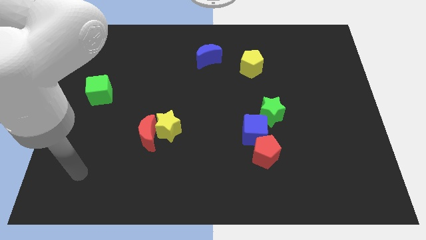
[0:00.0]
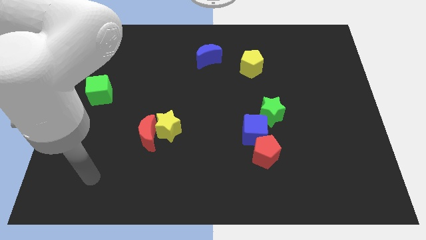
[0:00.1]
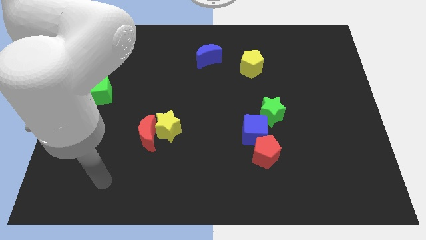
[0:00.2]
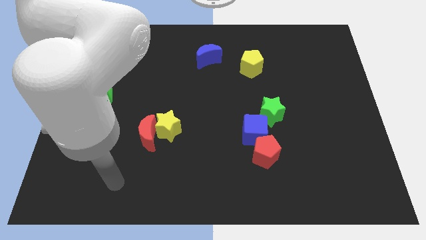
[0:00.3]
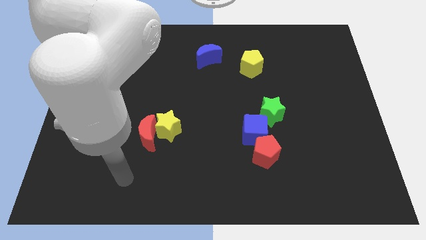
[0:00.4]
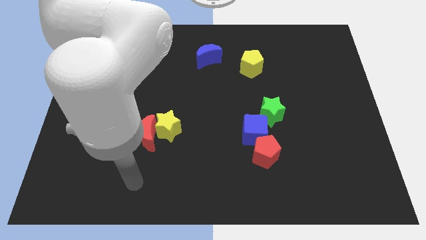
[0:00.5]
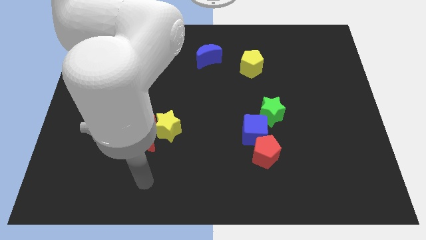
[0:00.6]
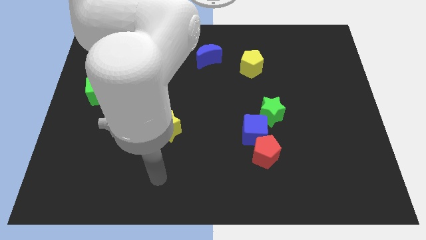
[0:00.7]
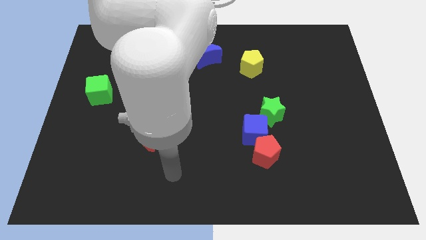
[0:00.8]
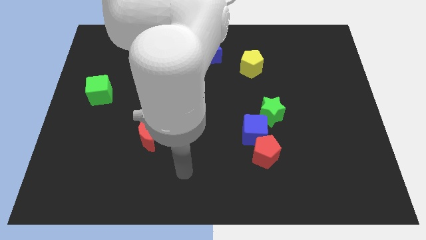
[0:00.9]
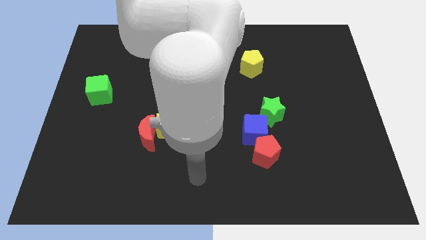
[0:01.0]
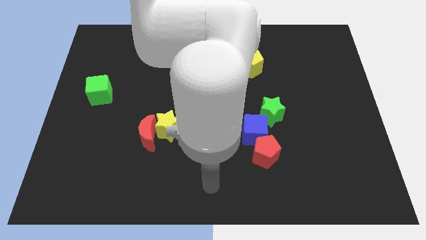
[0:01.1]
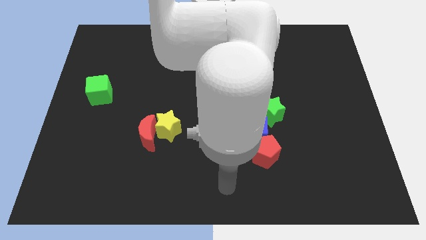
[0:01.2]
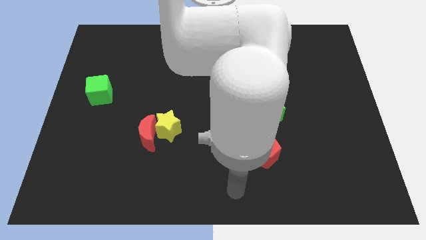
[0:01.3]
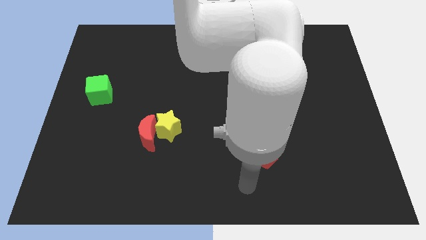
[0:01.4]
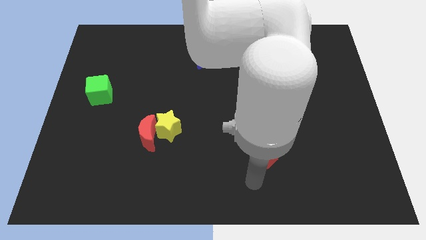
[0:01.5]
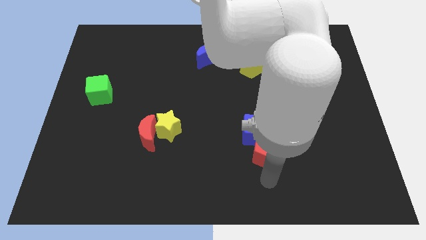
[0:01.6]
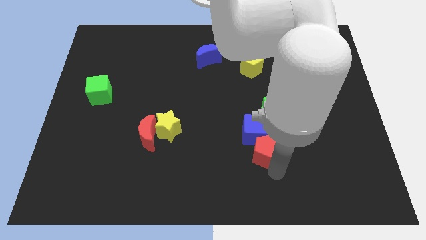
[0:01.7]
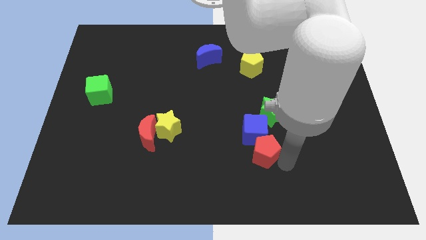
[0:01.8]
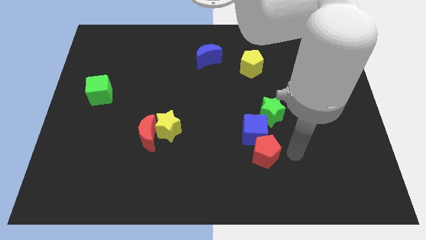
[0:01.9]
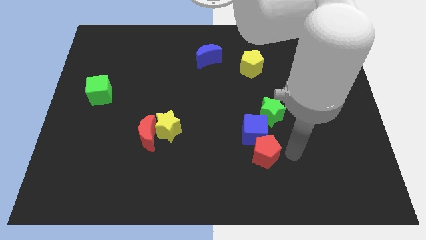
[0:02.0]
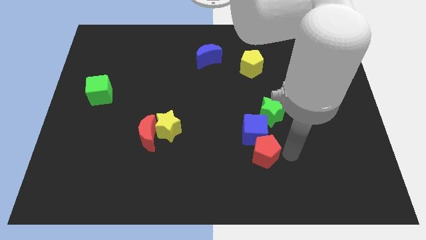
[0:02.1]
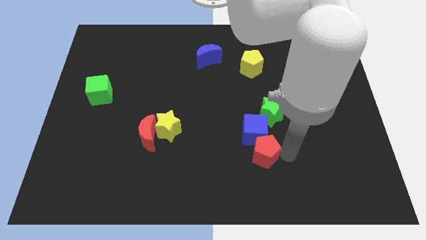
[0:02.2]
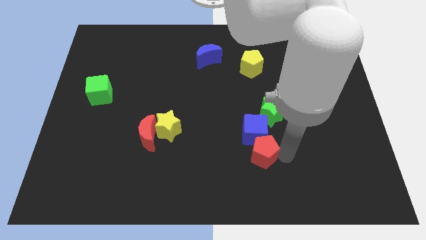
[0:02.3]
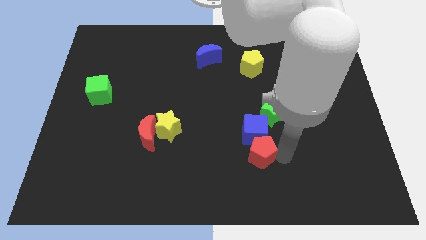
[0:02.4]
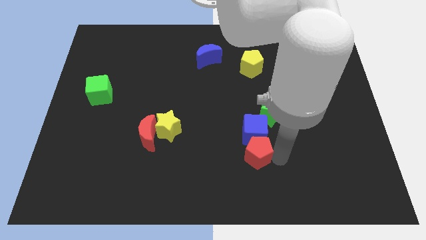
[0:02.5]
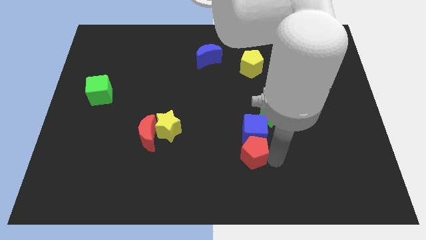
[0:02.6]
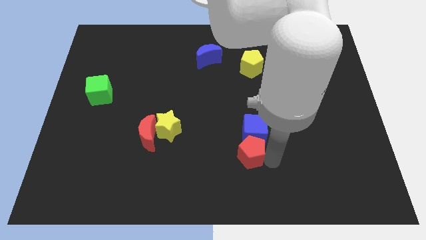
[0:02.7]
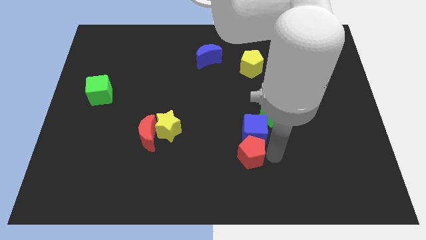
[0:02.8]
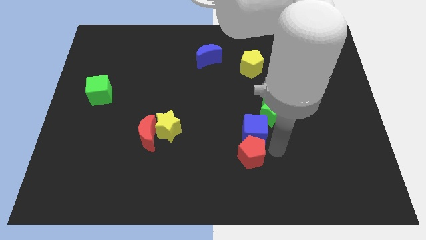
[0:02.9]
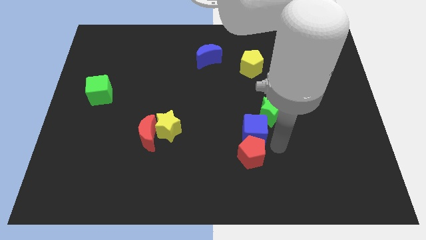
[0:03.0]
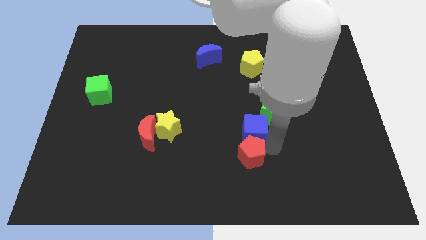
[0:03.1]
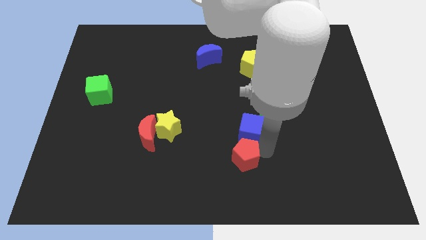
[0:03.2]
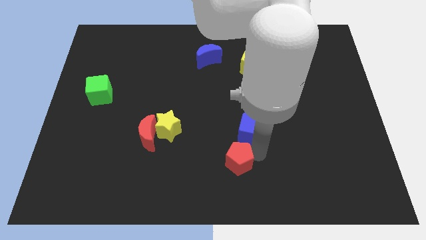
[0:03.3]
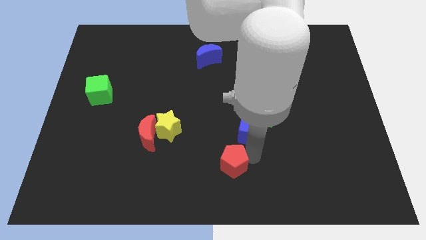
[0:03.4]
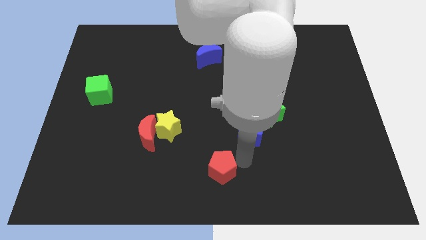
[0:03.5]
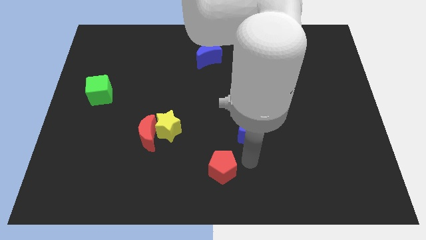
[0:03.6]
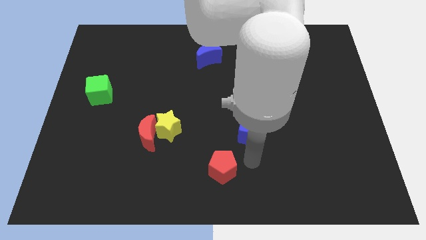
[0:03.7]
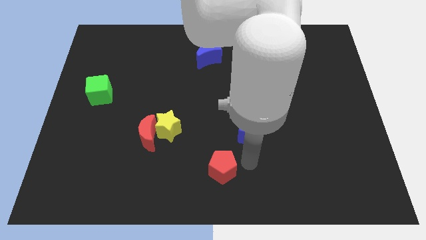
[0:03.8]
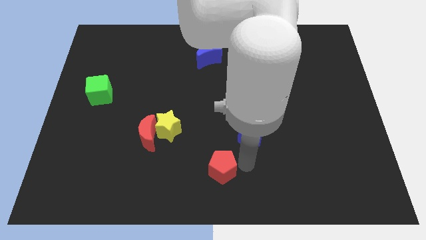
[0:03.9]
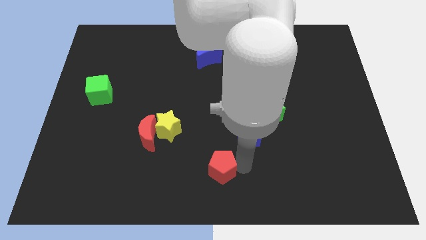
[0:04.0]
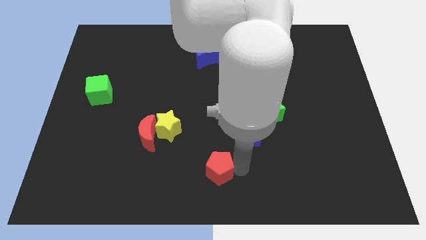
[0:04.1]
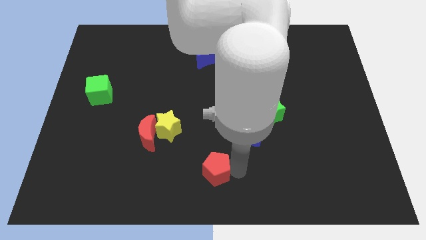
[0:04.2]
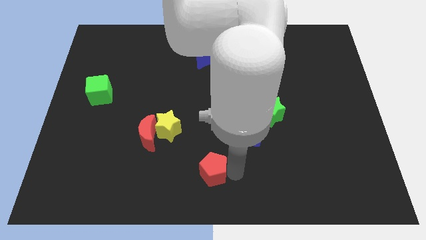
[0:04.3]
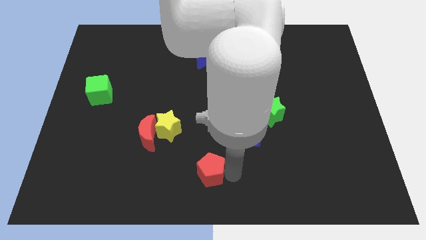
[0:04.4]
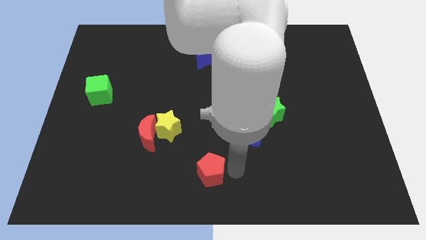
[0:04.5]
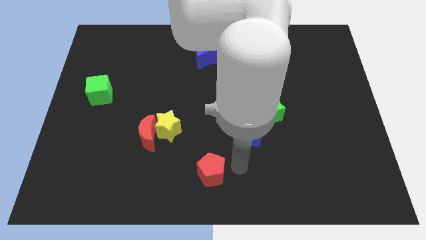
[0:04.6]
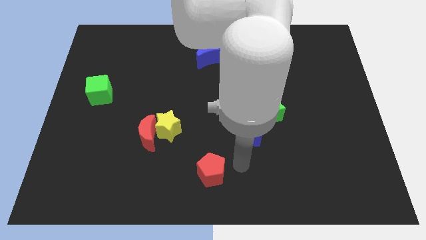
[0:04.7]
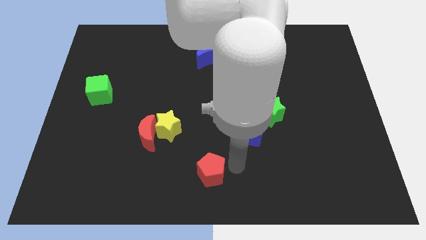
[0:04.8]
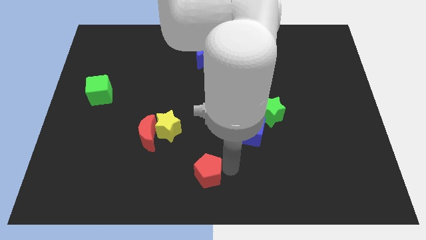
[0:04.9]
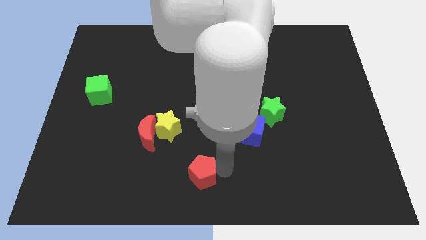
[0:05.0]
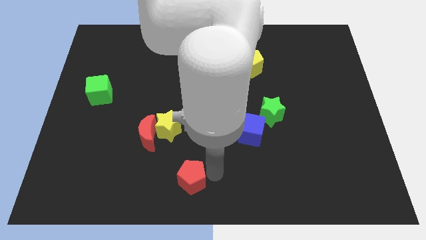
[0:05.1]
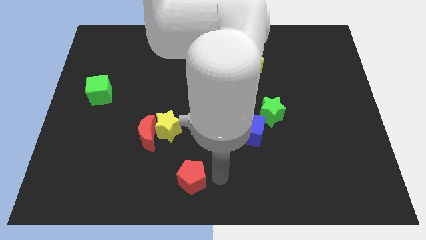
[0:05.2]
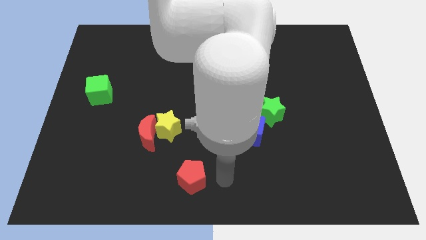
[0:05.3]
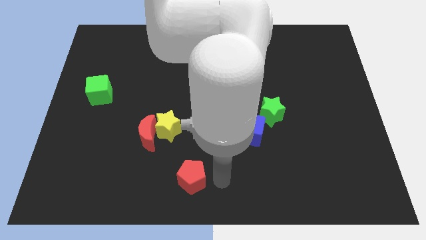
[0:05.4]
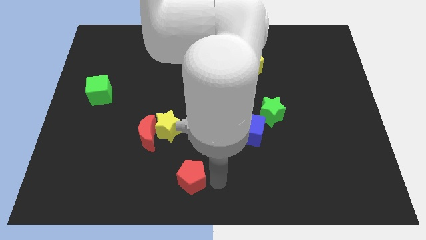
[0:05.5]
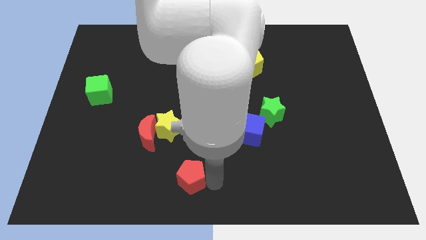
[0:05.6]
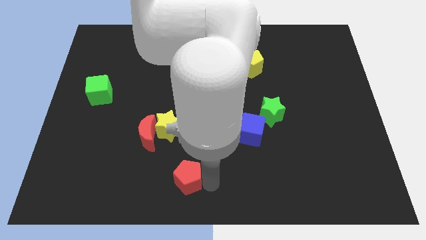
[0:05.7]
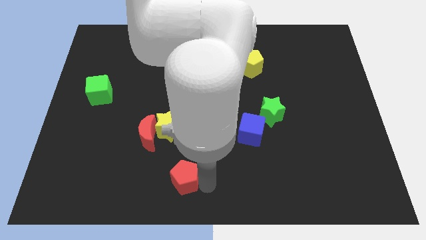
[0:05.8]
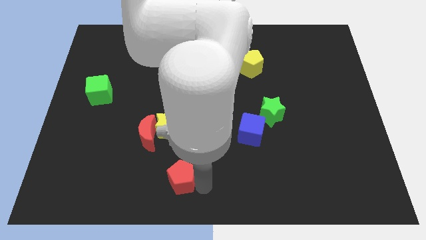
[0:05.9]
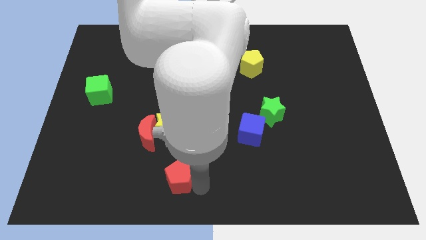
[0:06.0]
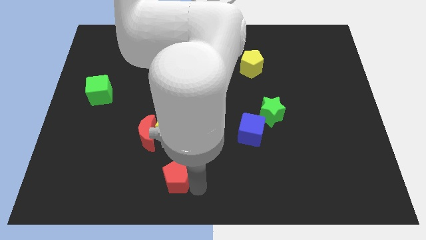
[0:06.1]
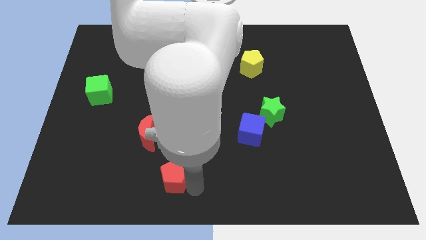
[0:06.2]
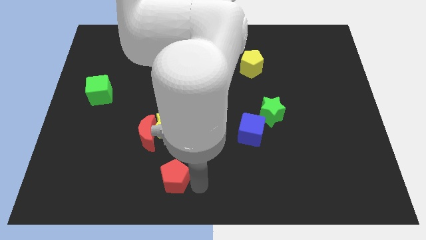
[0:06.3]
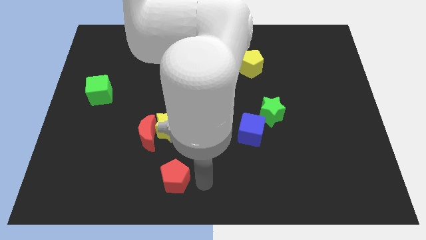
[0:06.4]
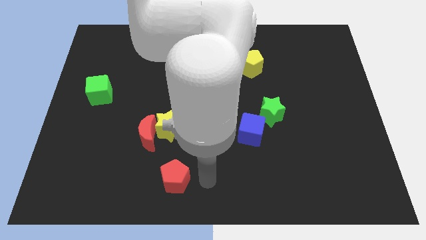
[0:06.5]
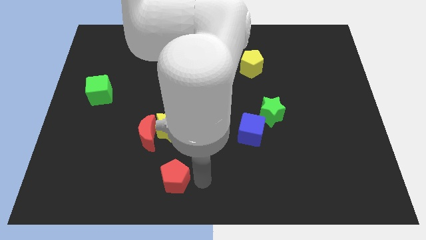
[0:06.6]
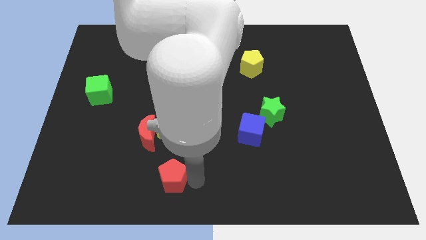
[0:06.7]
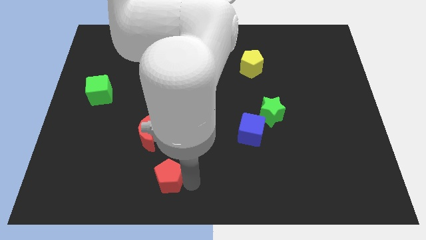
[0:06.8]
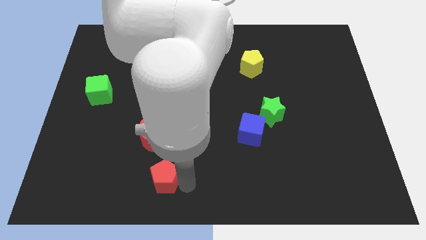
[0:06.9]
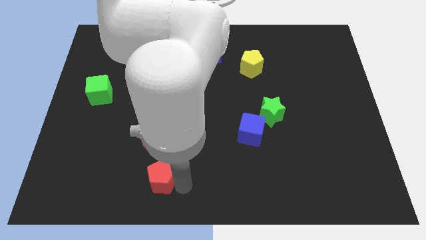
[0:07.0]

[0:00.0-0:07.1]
push the red pentagon left

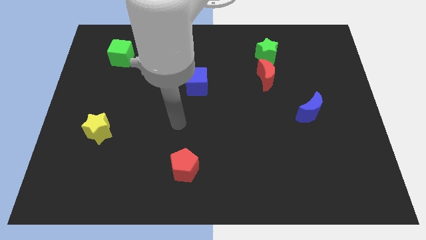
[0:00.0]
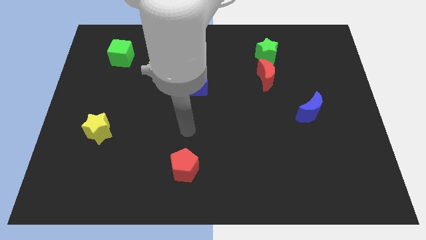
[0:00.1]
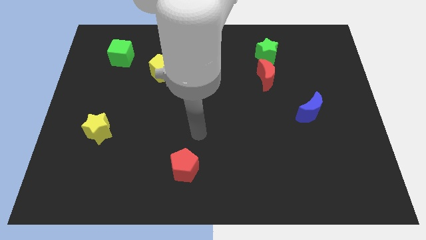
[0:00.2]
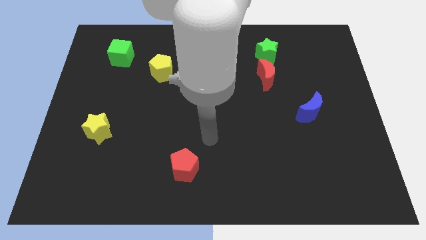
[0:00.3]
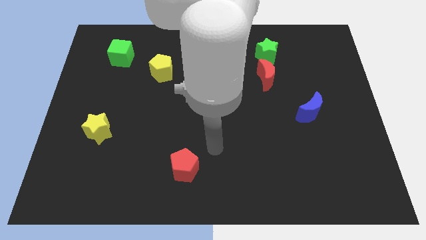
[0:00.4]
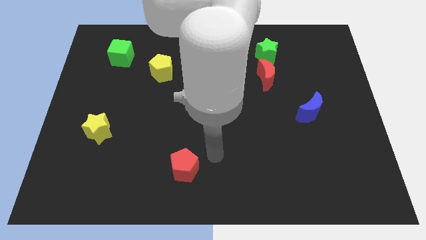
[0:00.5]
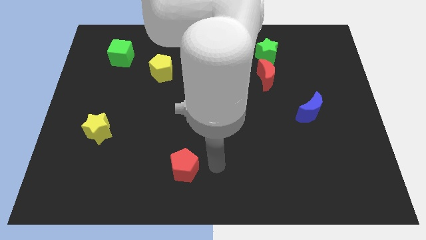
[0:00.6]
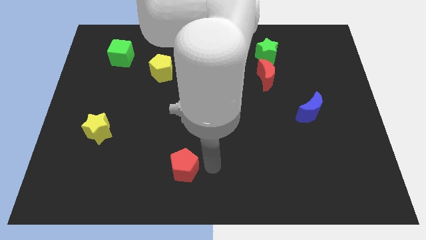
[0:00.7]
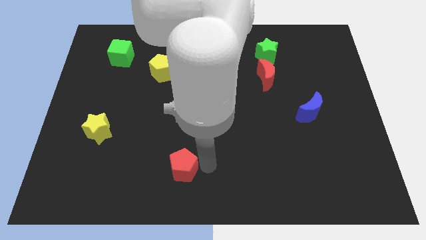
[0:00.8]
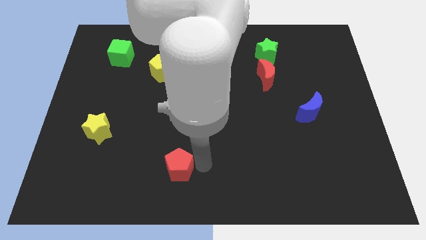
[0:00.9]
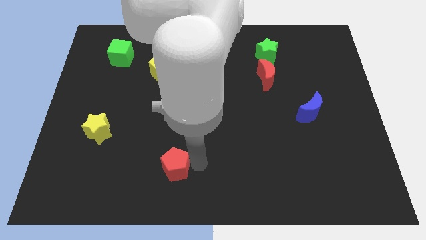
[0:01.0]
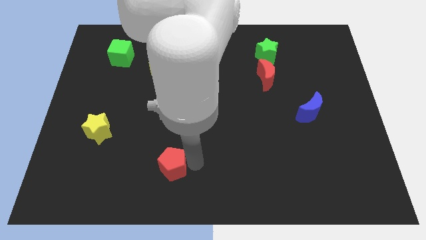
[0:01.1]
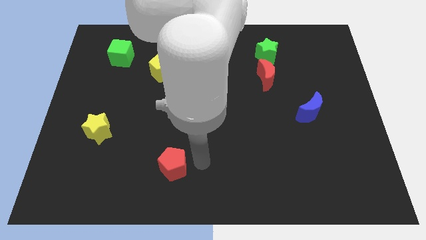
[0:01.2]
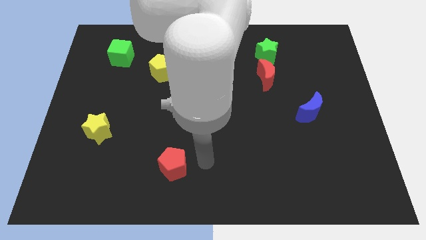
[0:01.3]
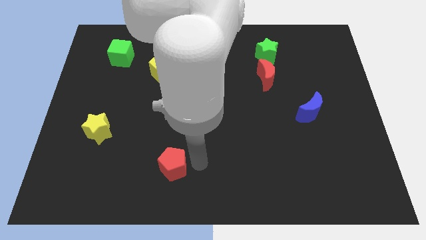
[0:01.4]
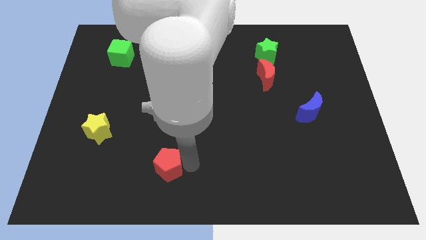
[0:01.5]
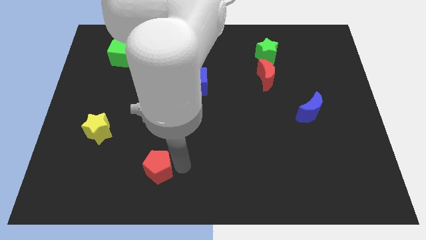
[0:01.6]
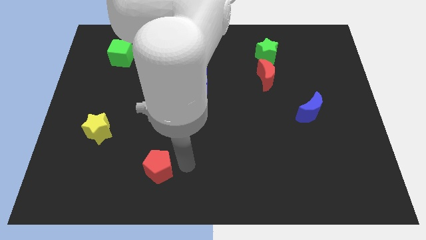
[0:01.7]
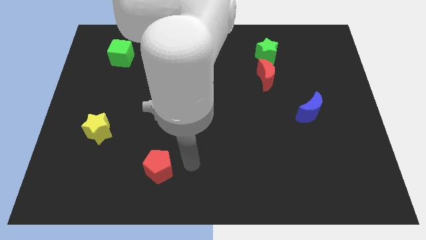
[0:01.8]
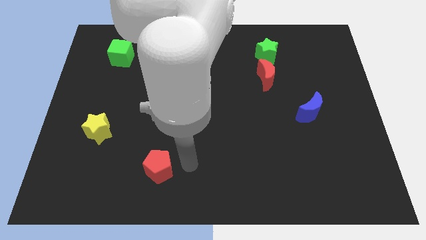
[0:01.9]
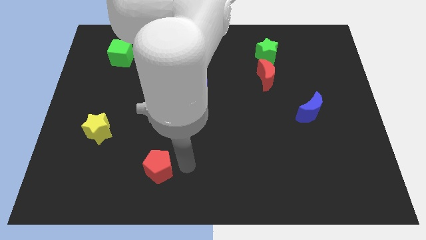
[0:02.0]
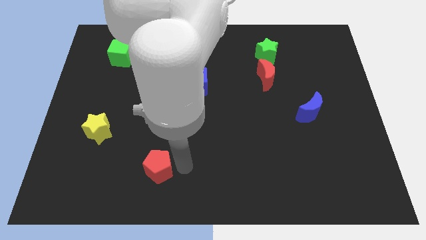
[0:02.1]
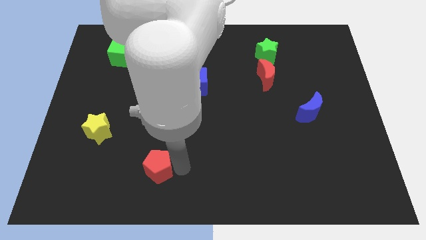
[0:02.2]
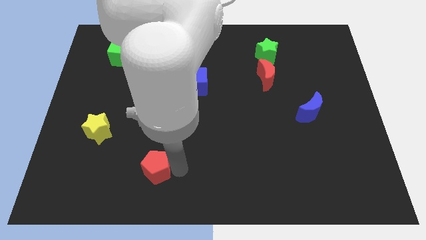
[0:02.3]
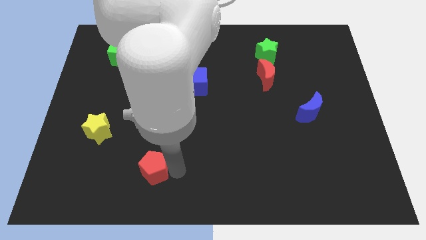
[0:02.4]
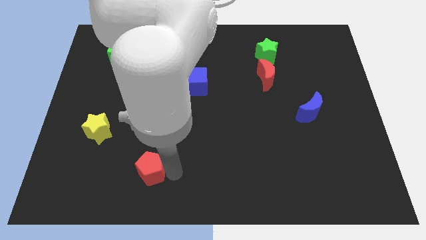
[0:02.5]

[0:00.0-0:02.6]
push the red pentagon left a little
